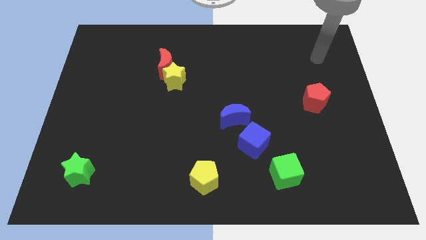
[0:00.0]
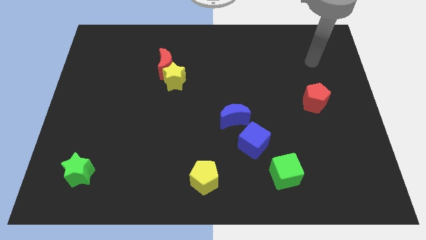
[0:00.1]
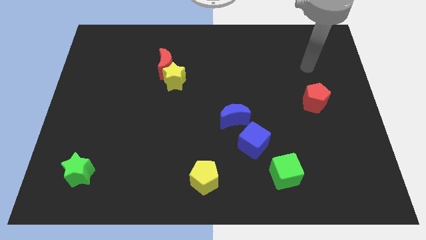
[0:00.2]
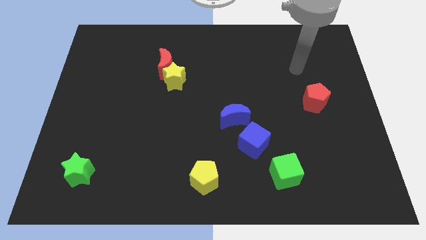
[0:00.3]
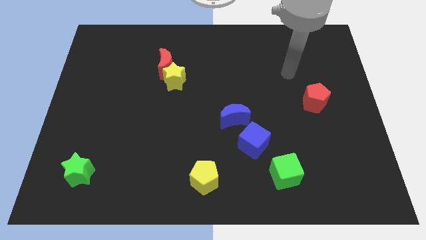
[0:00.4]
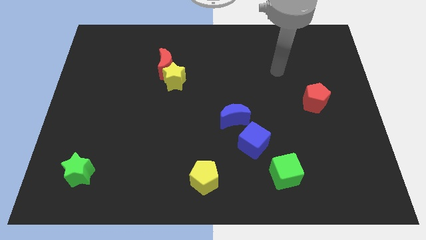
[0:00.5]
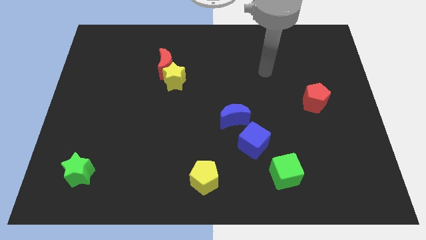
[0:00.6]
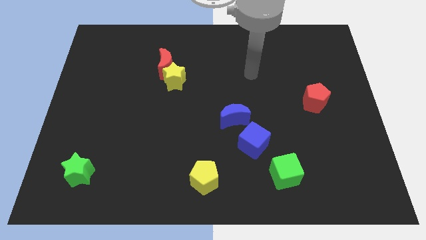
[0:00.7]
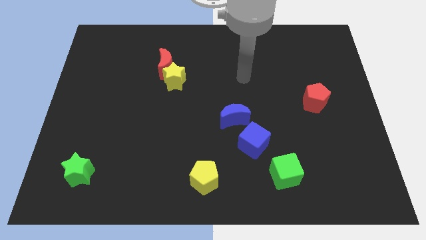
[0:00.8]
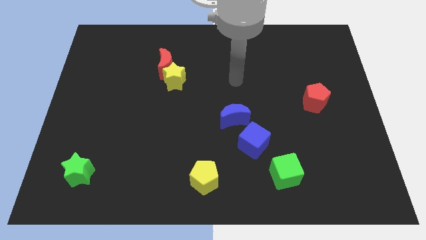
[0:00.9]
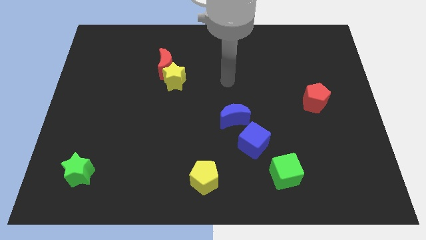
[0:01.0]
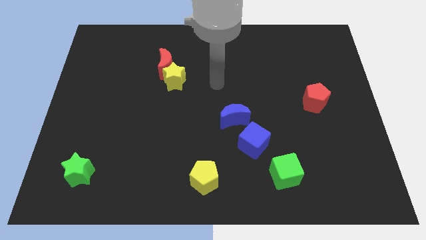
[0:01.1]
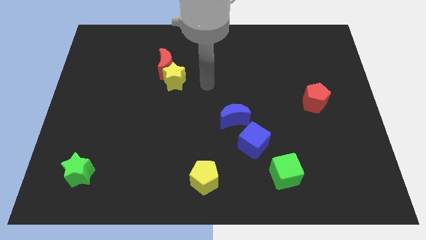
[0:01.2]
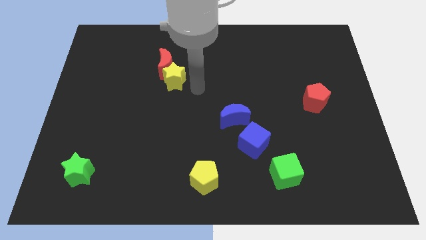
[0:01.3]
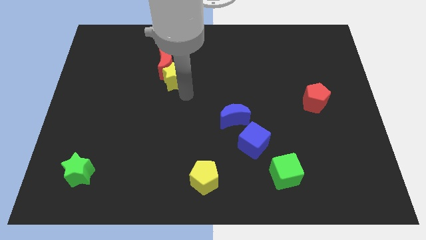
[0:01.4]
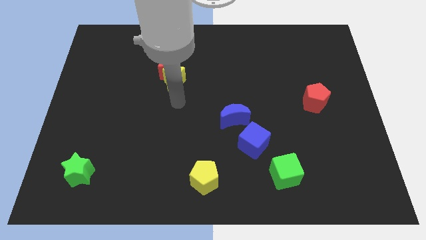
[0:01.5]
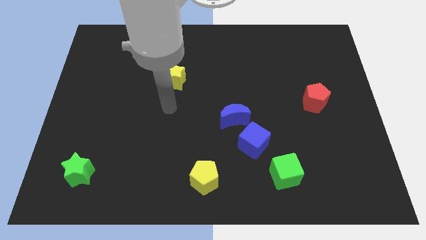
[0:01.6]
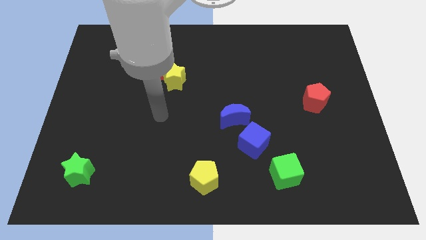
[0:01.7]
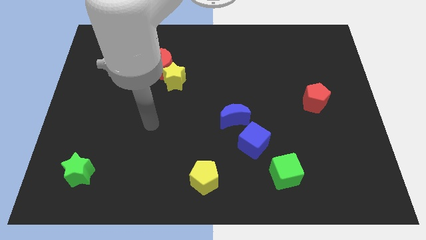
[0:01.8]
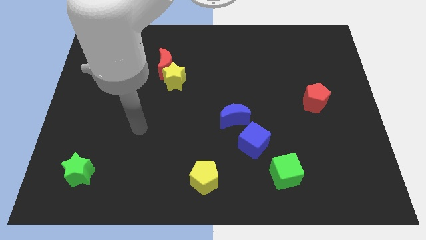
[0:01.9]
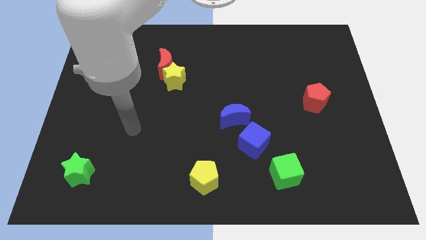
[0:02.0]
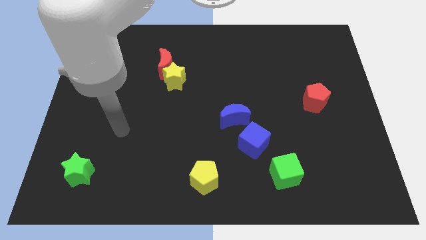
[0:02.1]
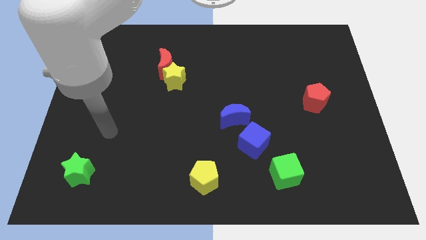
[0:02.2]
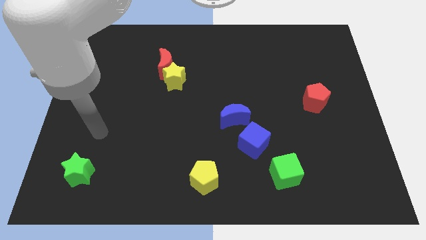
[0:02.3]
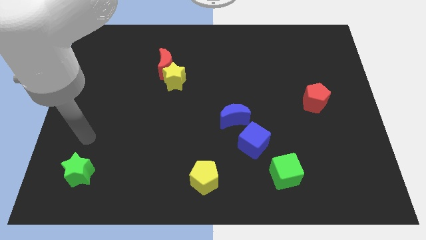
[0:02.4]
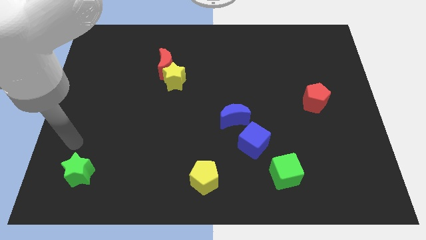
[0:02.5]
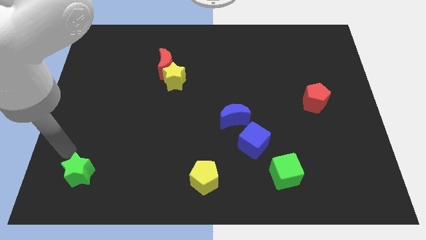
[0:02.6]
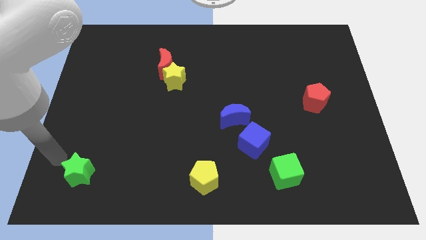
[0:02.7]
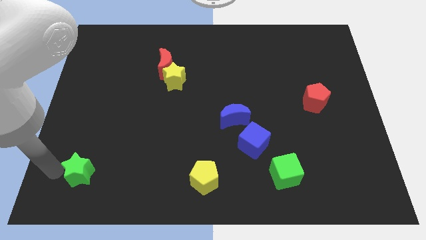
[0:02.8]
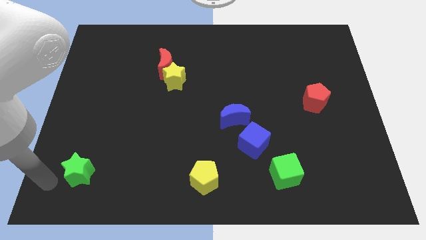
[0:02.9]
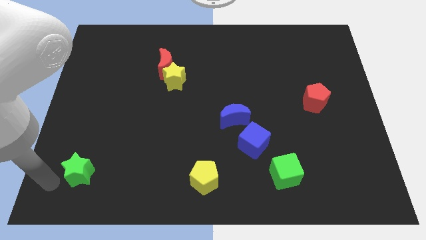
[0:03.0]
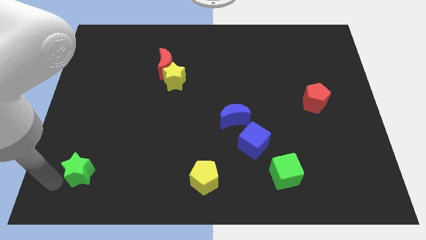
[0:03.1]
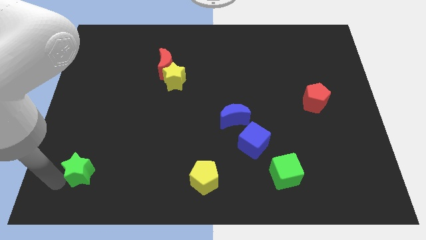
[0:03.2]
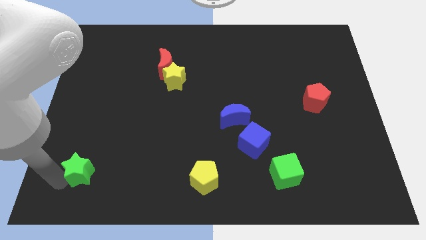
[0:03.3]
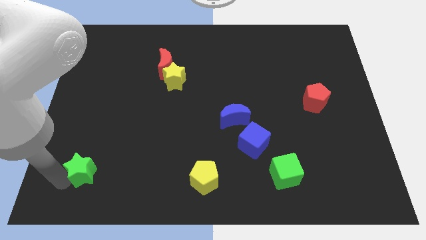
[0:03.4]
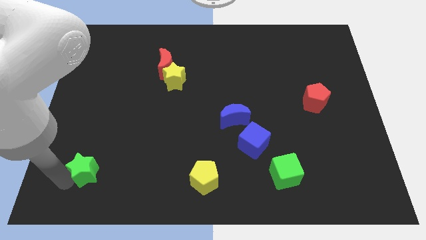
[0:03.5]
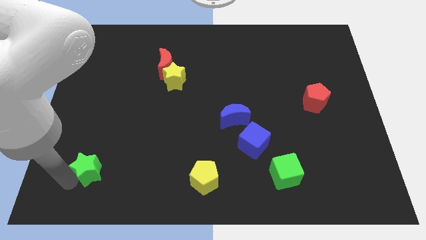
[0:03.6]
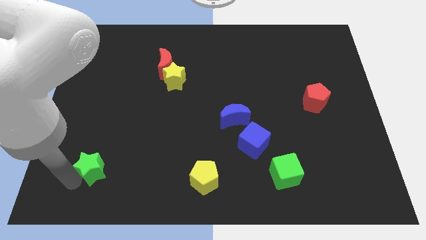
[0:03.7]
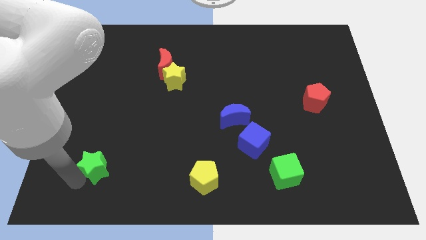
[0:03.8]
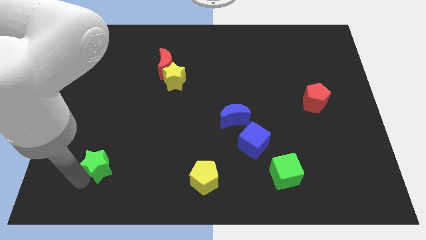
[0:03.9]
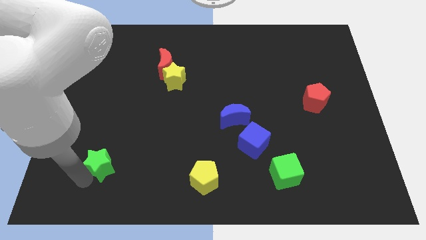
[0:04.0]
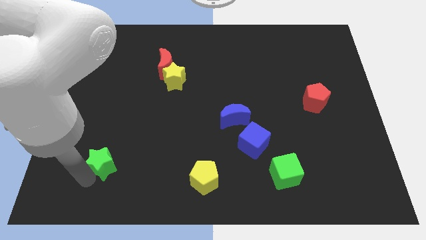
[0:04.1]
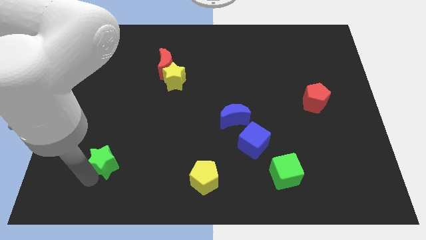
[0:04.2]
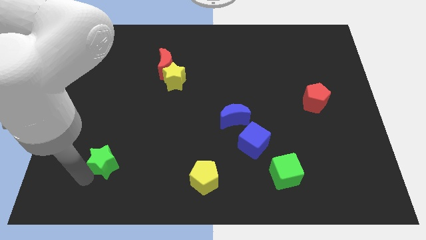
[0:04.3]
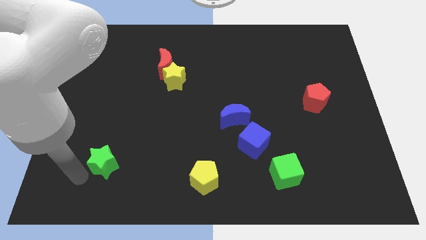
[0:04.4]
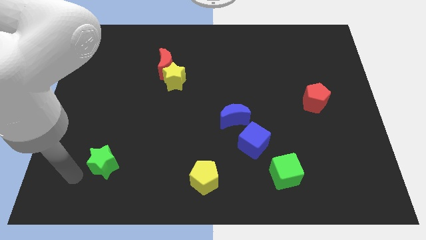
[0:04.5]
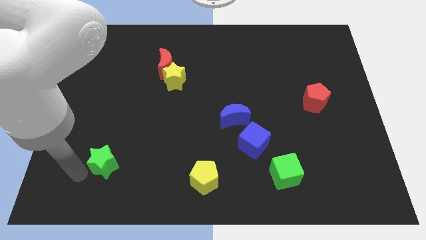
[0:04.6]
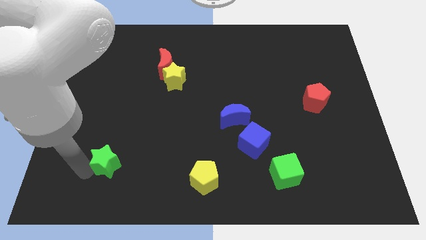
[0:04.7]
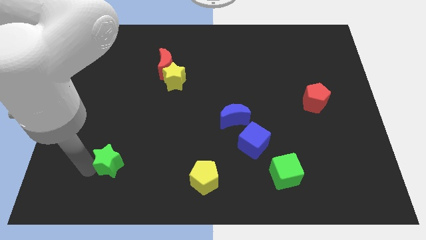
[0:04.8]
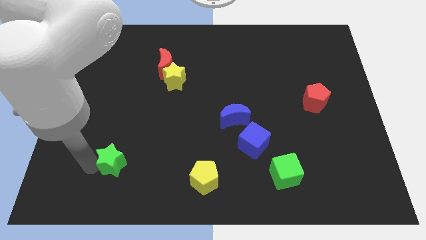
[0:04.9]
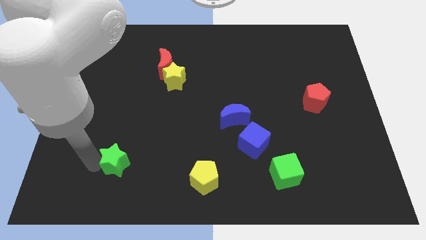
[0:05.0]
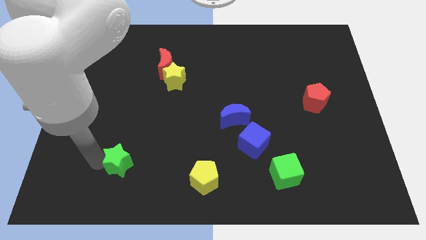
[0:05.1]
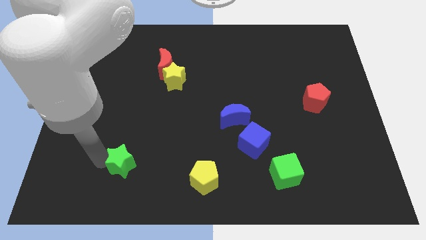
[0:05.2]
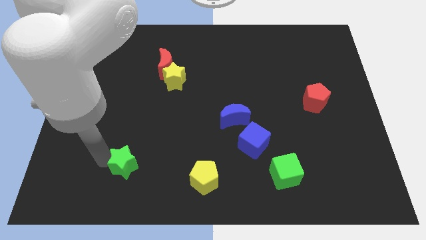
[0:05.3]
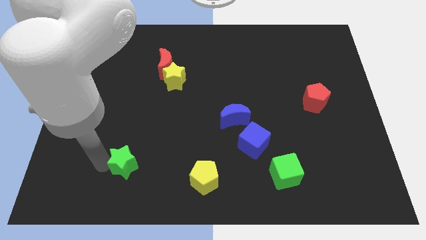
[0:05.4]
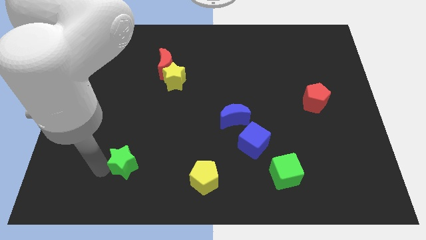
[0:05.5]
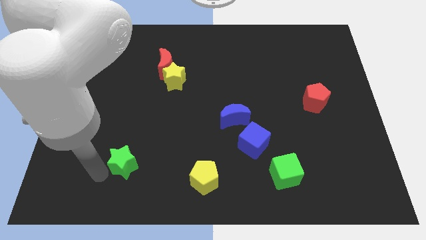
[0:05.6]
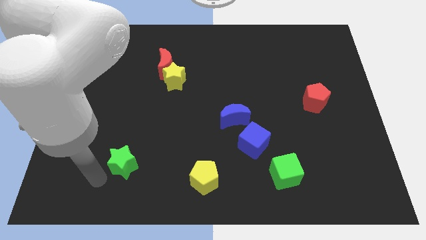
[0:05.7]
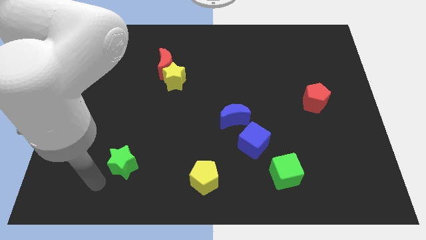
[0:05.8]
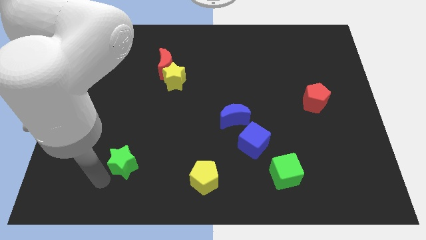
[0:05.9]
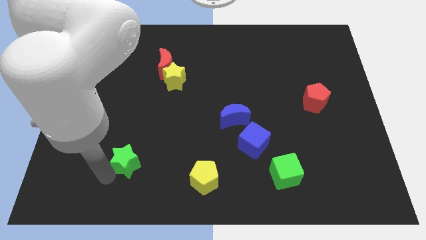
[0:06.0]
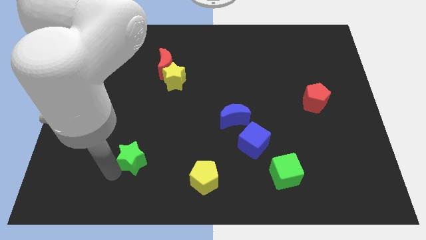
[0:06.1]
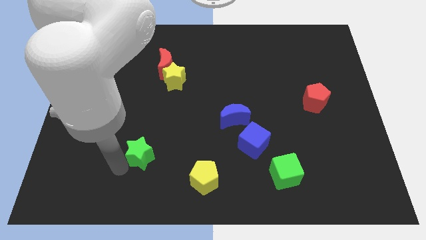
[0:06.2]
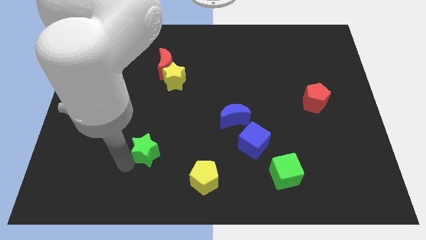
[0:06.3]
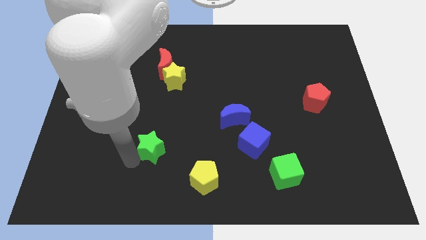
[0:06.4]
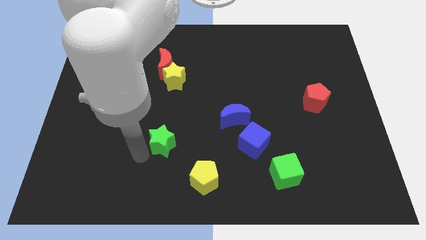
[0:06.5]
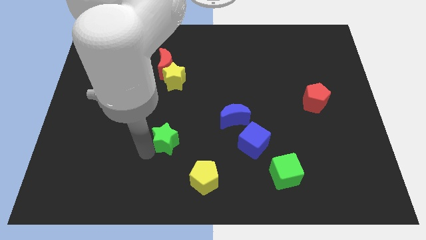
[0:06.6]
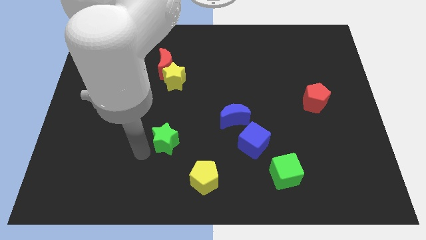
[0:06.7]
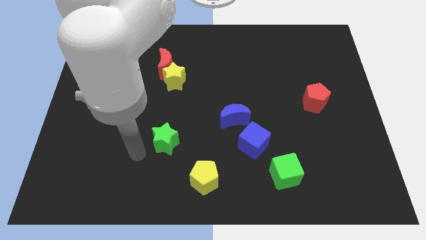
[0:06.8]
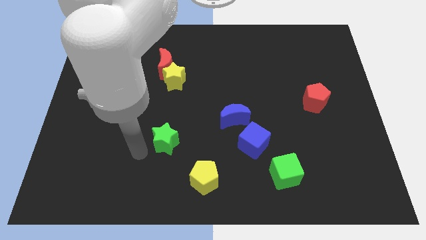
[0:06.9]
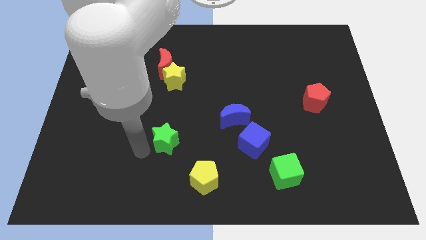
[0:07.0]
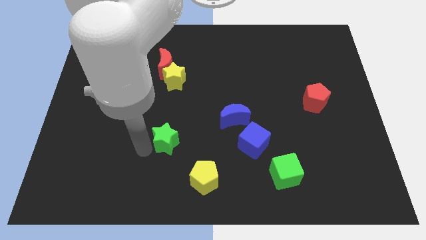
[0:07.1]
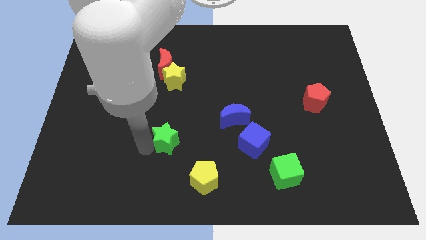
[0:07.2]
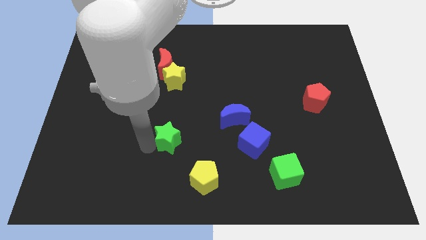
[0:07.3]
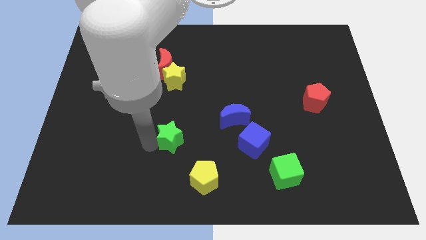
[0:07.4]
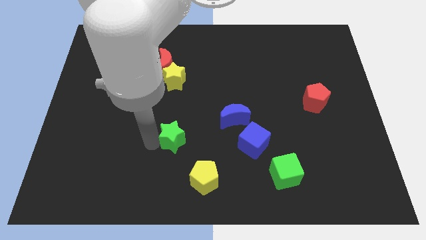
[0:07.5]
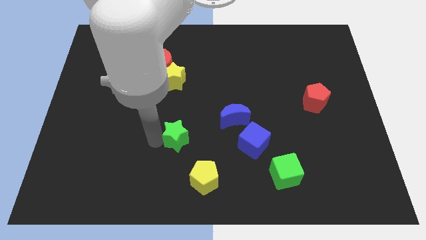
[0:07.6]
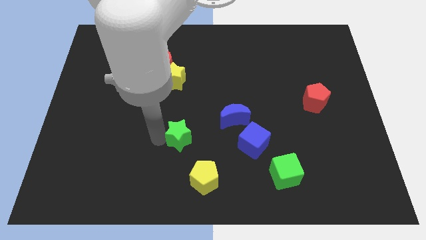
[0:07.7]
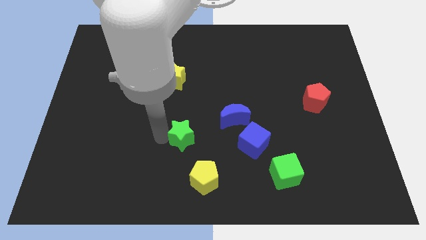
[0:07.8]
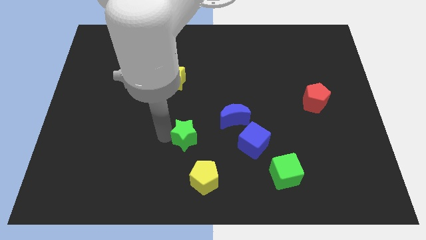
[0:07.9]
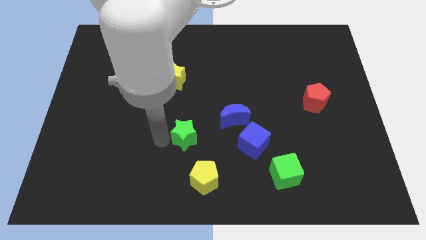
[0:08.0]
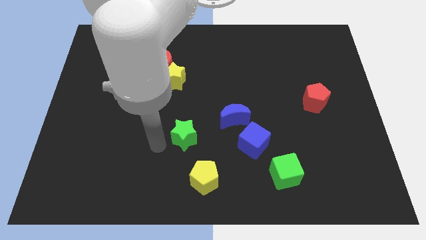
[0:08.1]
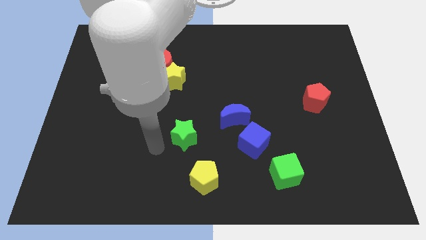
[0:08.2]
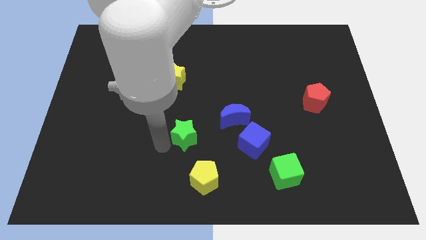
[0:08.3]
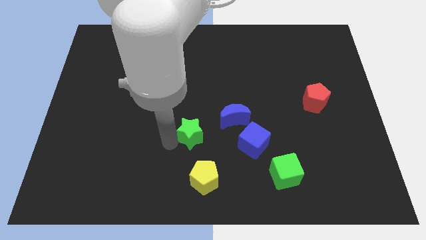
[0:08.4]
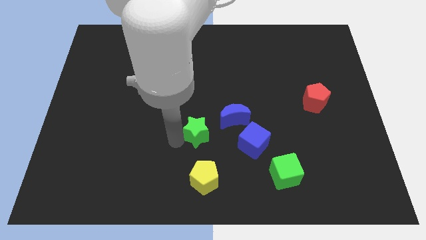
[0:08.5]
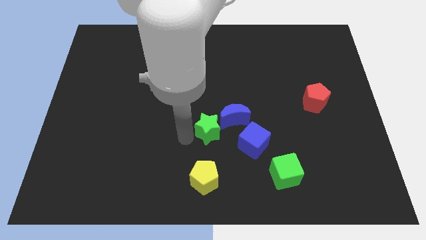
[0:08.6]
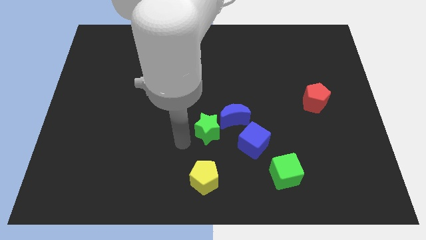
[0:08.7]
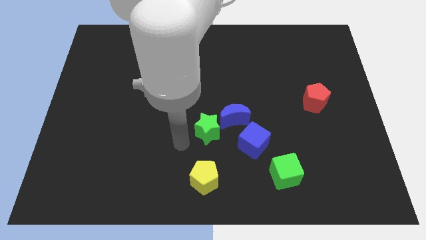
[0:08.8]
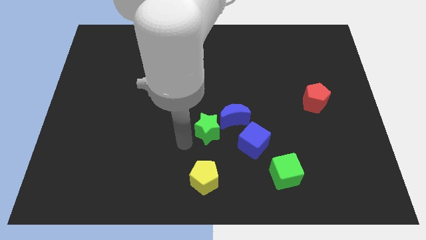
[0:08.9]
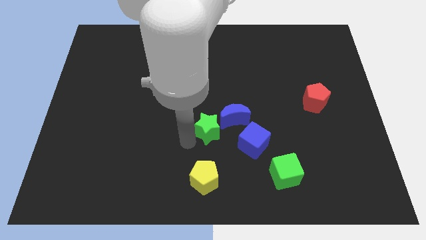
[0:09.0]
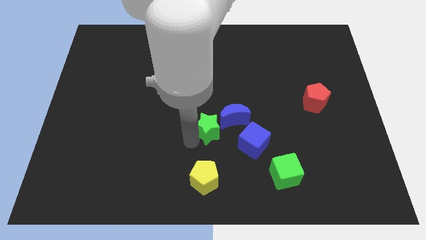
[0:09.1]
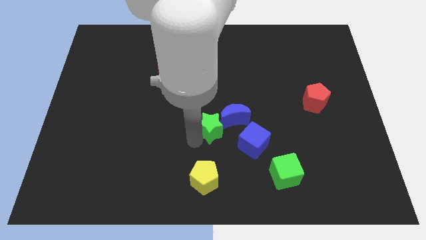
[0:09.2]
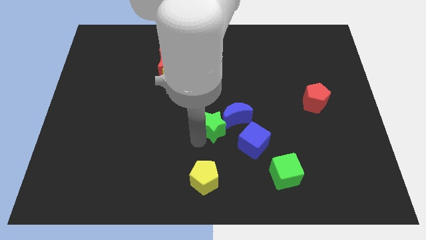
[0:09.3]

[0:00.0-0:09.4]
slide the green star to the blue moon
